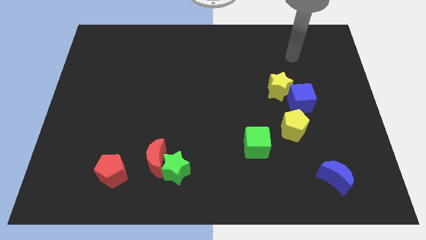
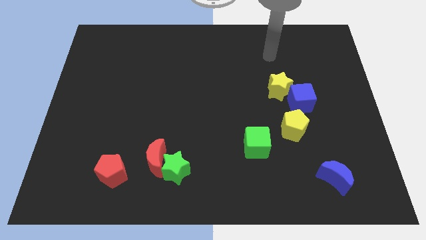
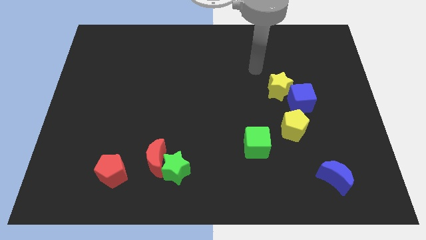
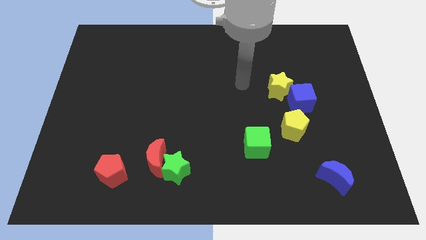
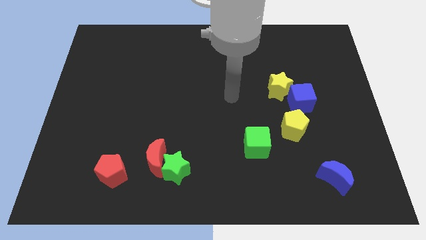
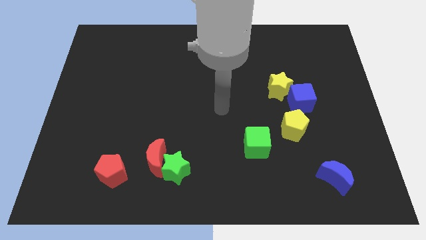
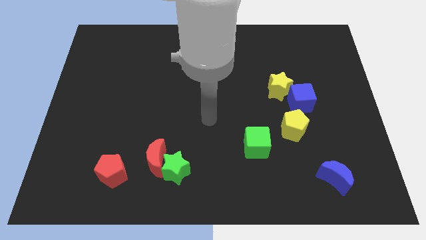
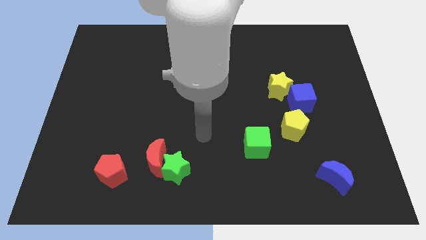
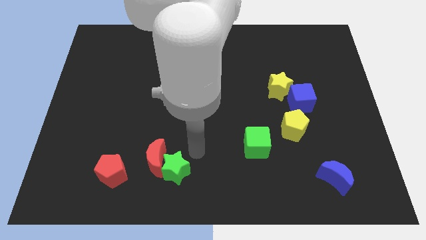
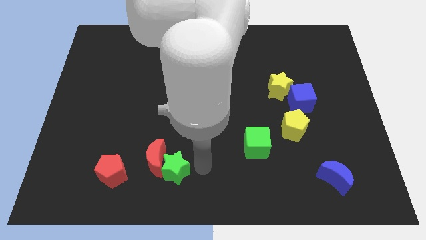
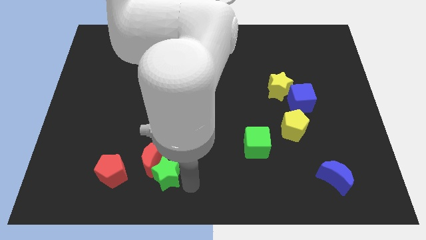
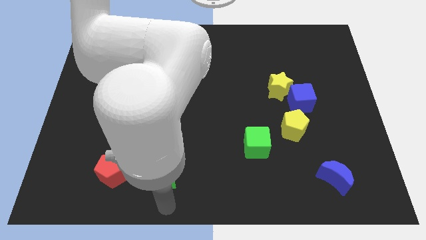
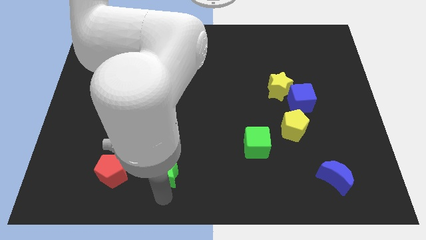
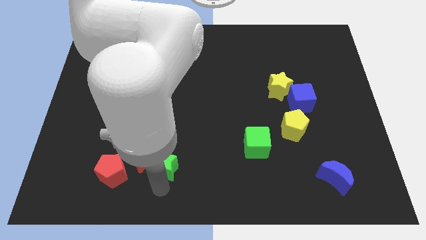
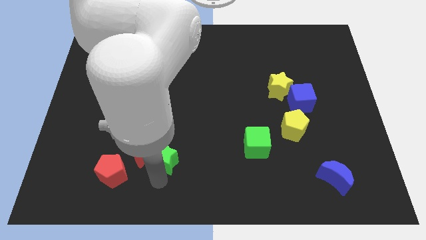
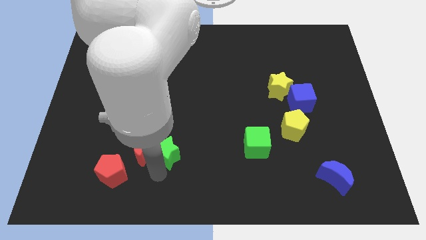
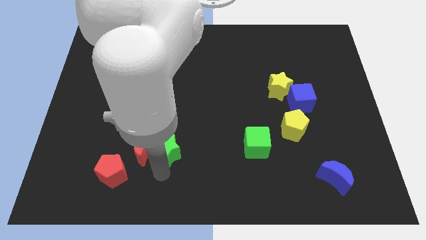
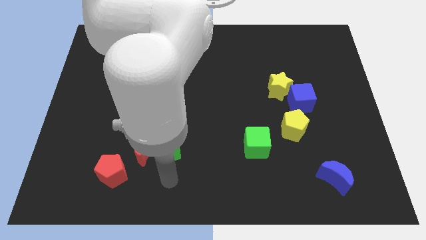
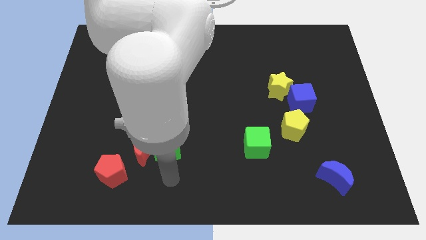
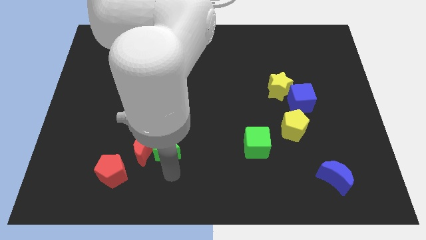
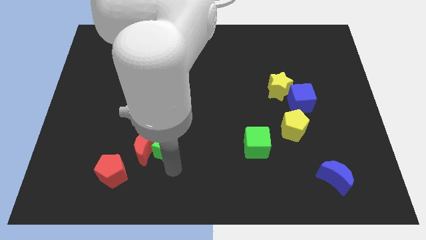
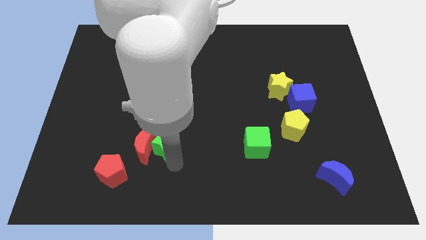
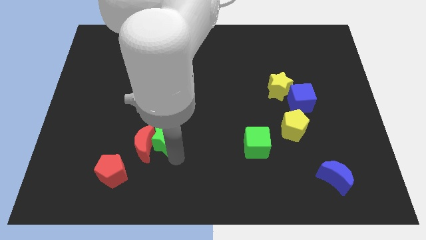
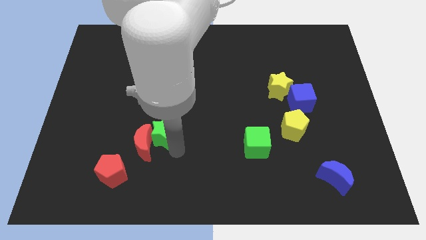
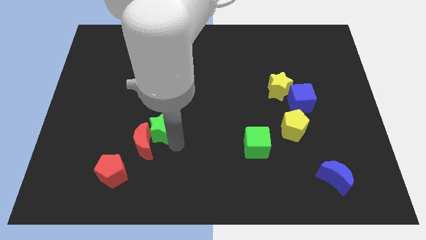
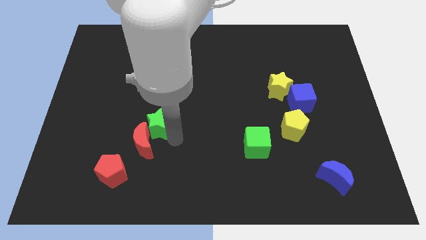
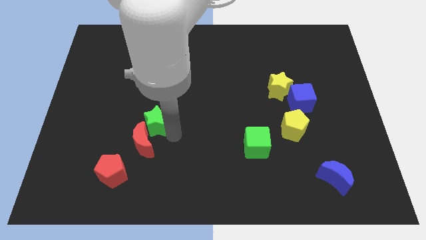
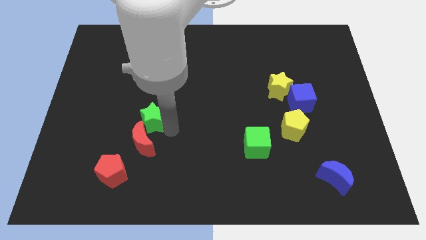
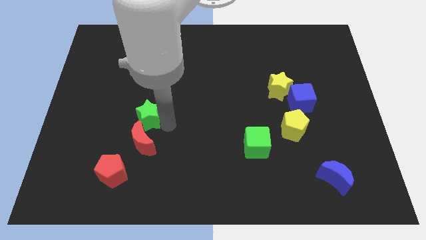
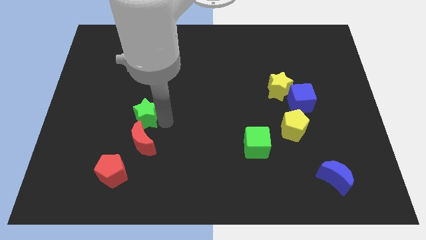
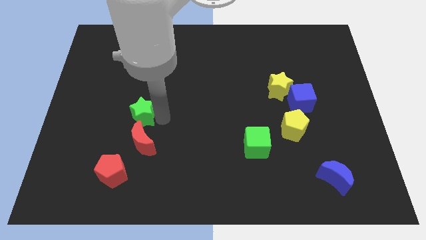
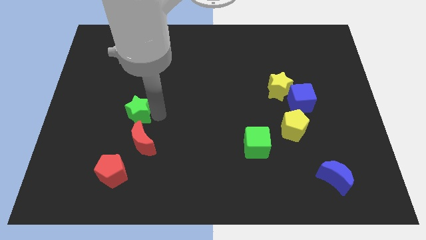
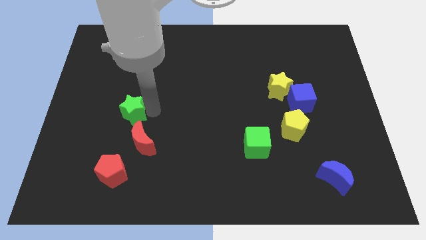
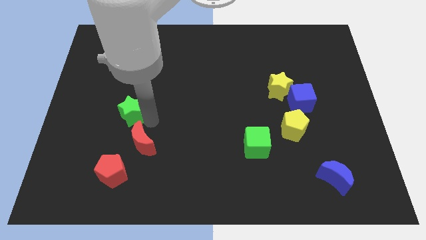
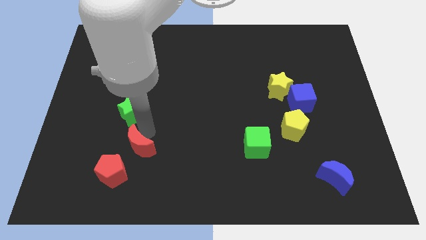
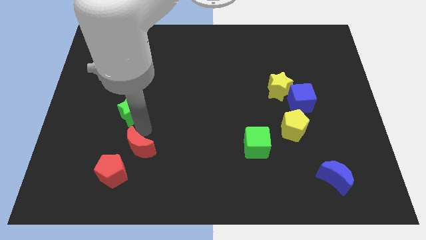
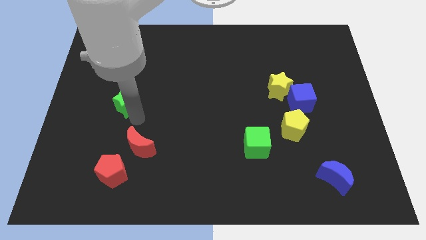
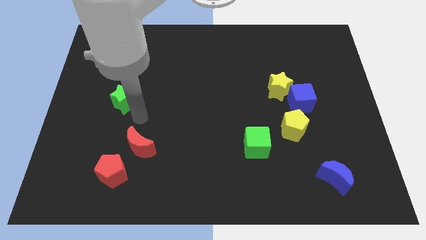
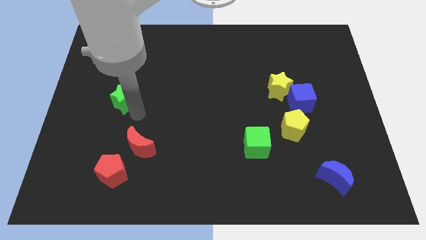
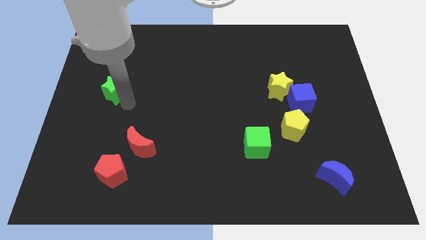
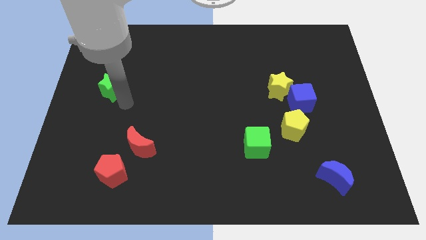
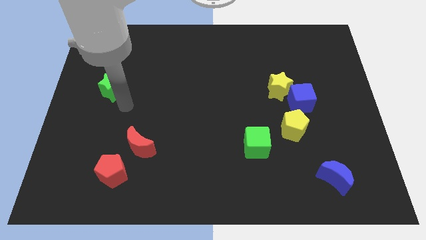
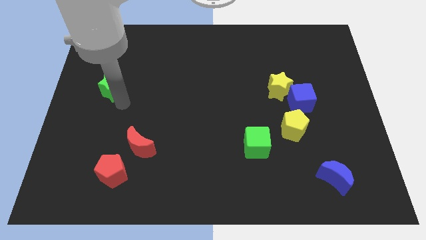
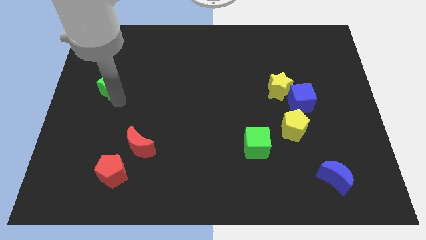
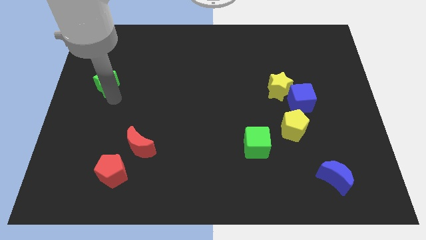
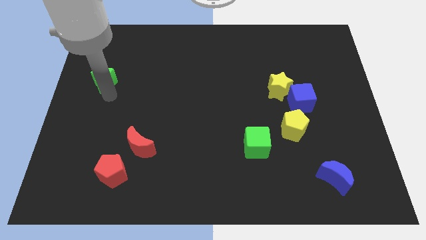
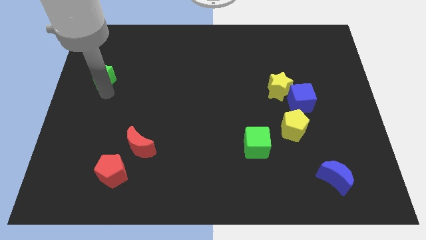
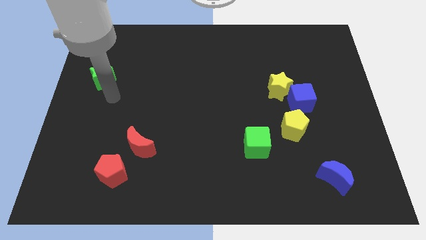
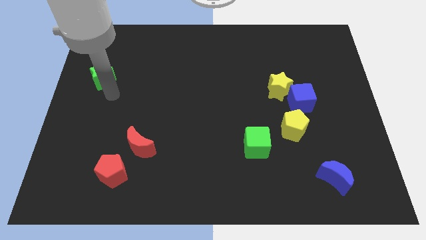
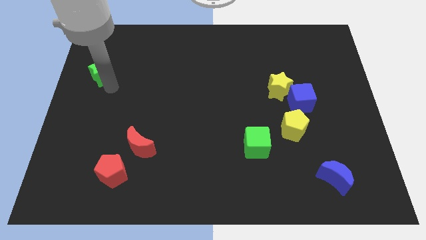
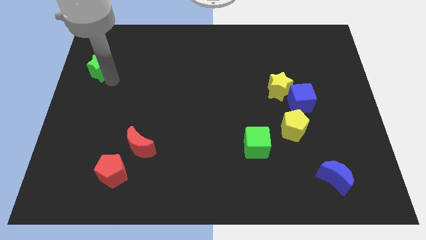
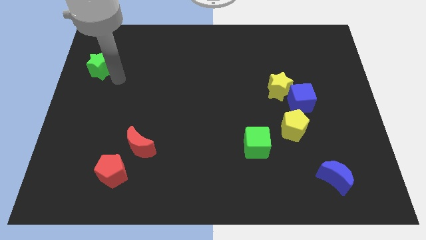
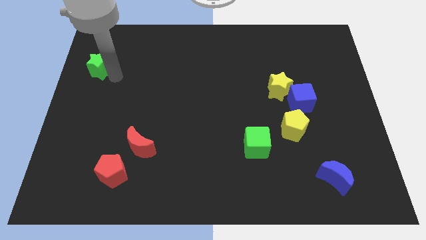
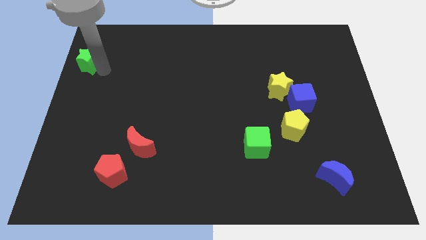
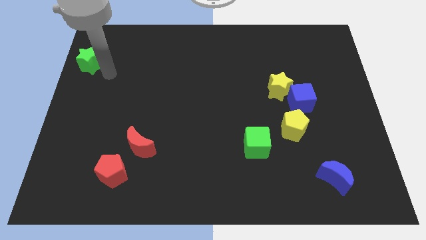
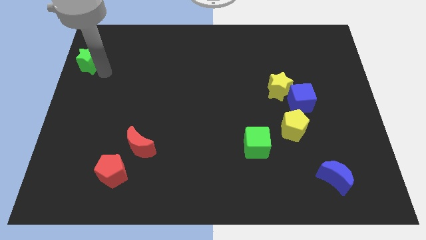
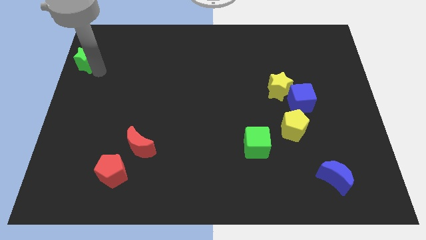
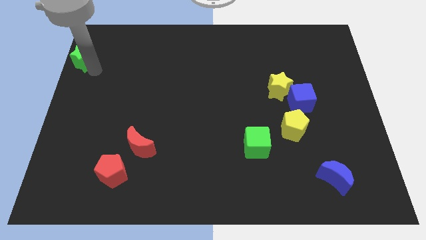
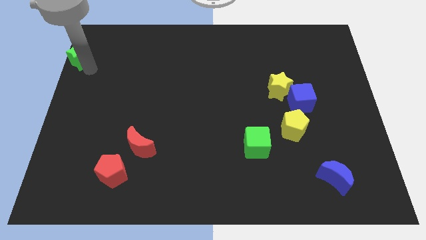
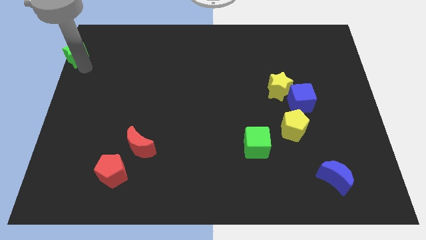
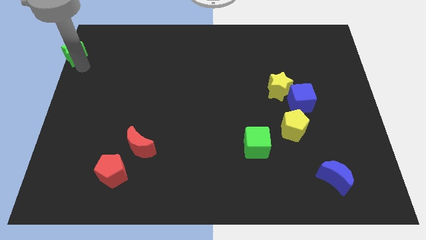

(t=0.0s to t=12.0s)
push the green star to the upper left corner
